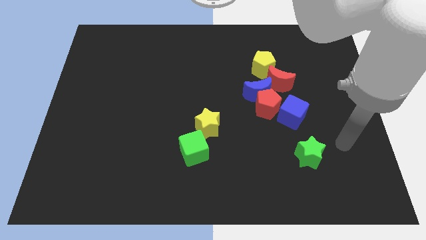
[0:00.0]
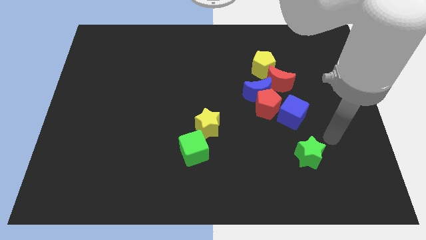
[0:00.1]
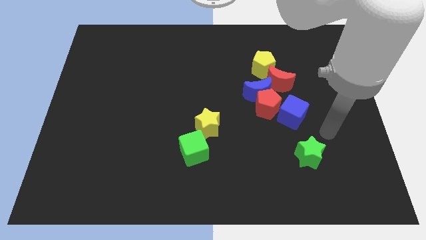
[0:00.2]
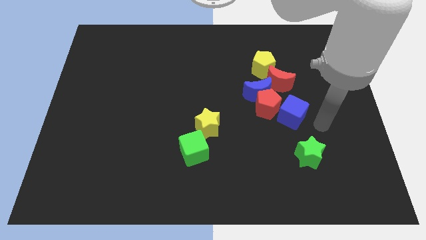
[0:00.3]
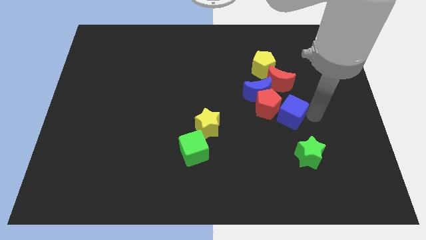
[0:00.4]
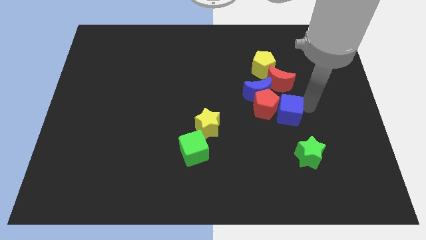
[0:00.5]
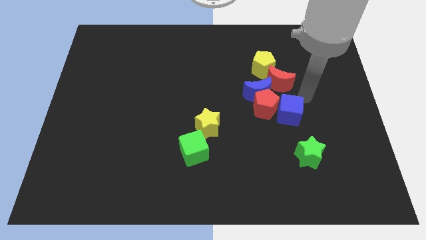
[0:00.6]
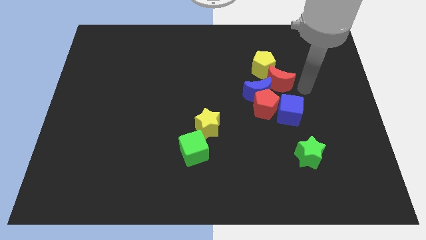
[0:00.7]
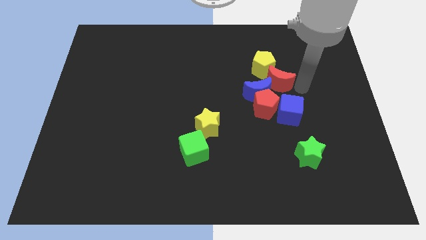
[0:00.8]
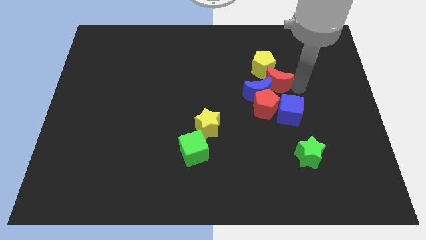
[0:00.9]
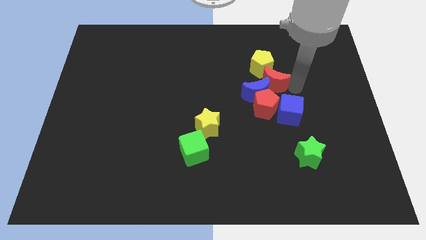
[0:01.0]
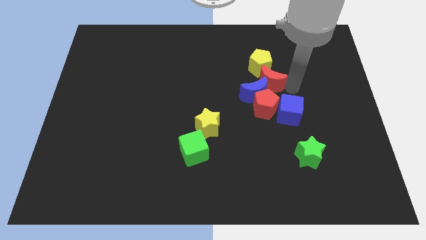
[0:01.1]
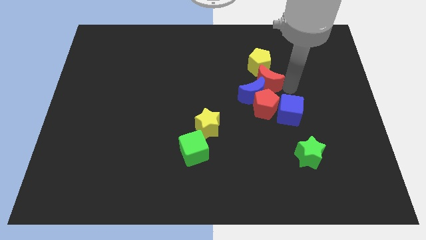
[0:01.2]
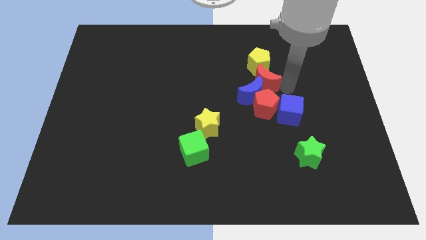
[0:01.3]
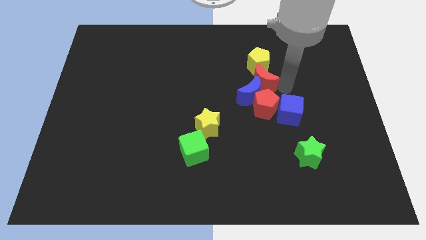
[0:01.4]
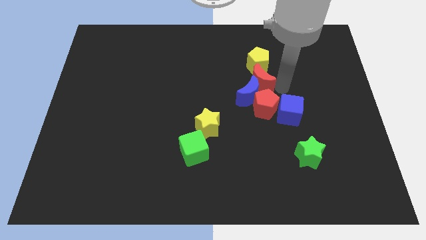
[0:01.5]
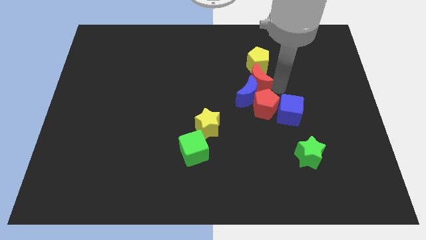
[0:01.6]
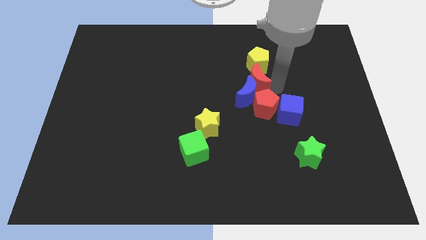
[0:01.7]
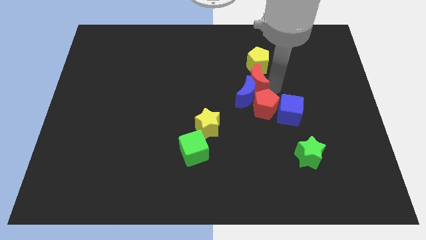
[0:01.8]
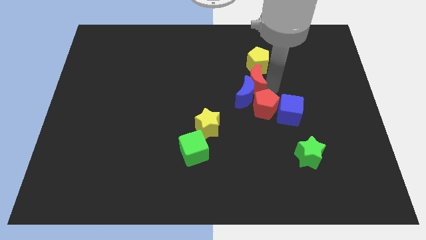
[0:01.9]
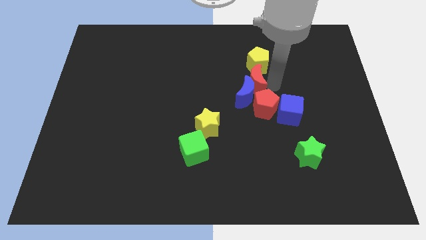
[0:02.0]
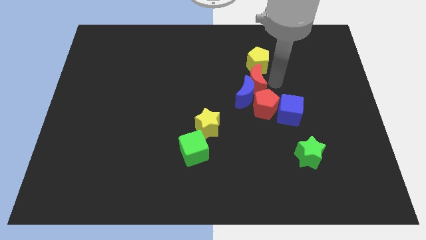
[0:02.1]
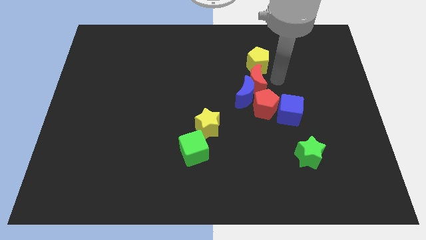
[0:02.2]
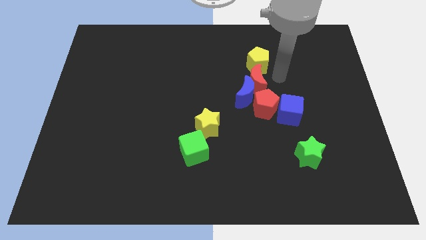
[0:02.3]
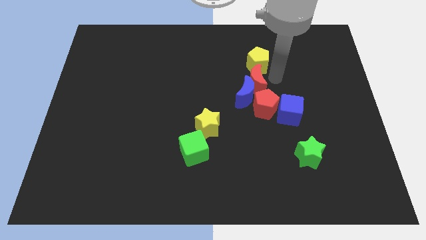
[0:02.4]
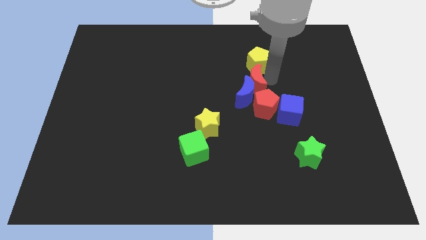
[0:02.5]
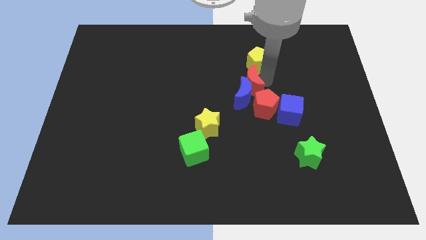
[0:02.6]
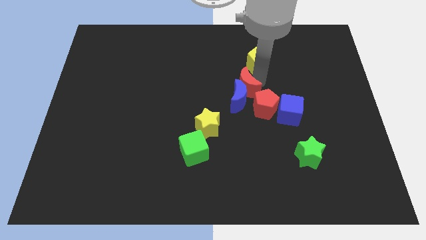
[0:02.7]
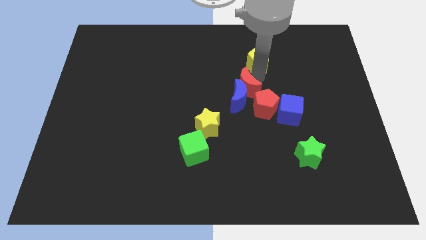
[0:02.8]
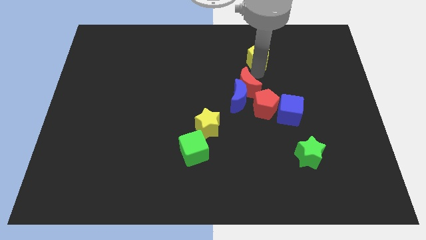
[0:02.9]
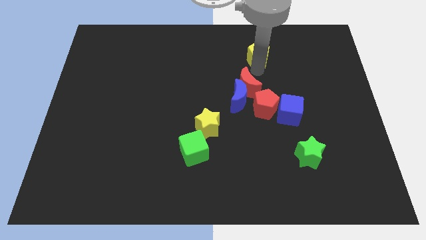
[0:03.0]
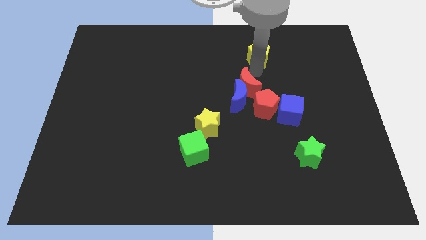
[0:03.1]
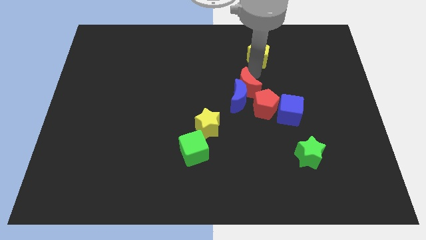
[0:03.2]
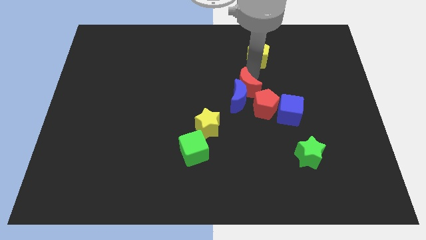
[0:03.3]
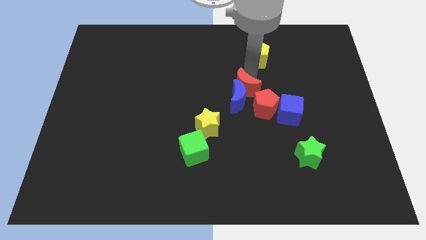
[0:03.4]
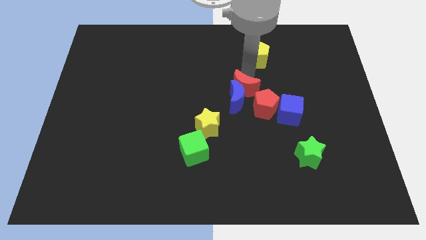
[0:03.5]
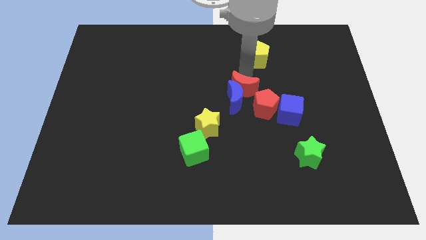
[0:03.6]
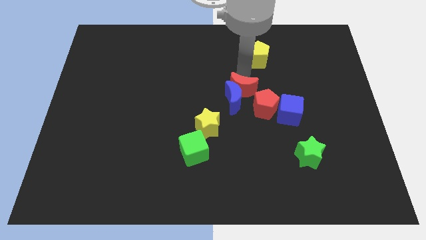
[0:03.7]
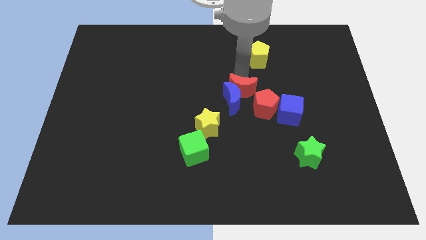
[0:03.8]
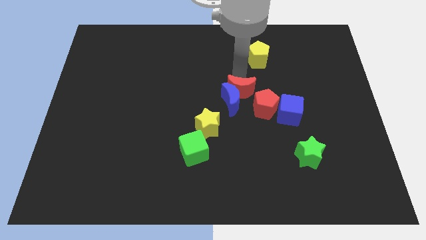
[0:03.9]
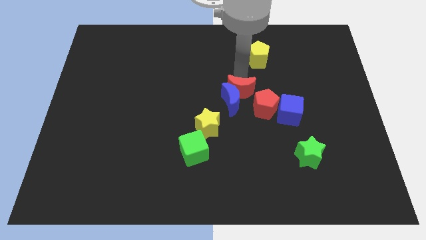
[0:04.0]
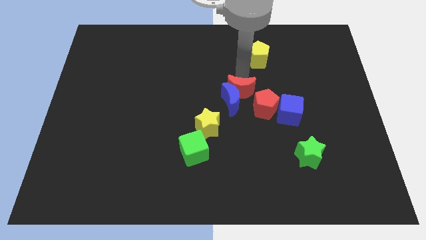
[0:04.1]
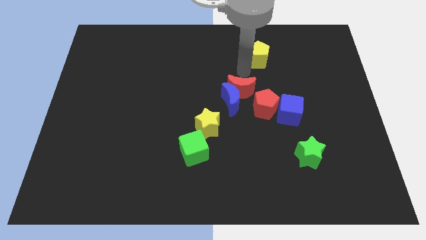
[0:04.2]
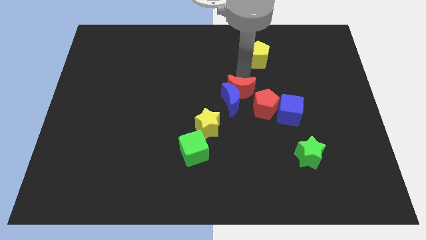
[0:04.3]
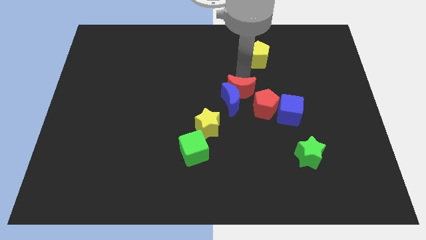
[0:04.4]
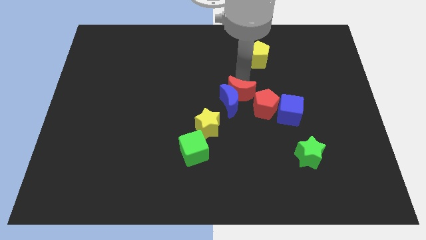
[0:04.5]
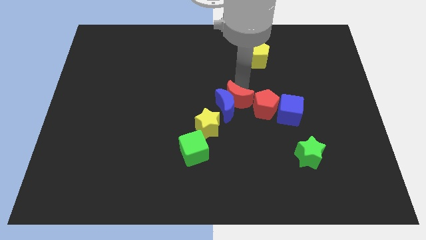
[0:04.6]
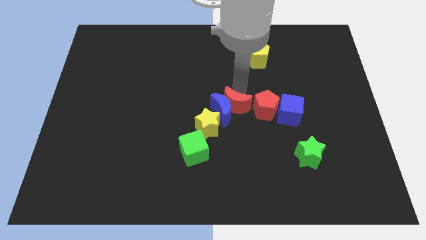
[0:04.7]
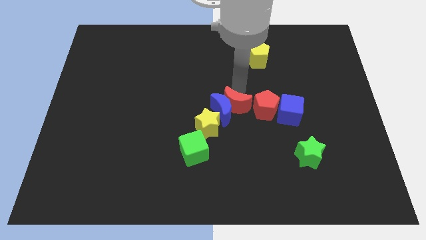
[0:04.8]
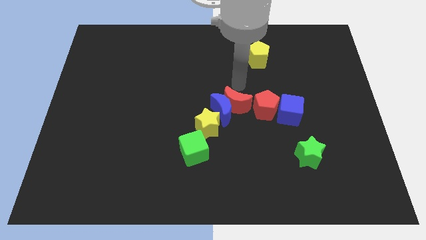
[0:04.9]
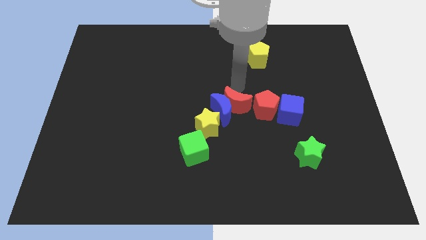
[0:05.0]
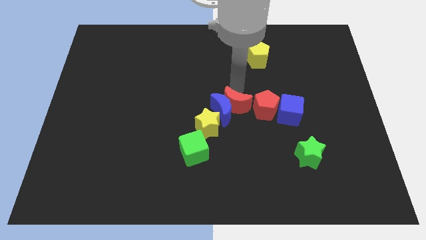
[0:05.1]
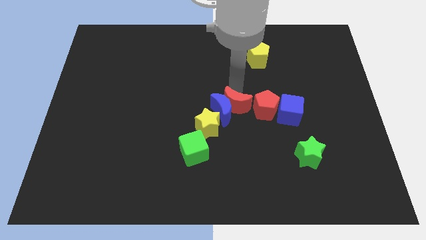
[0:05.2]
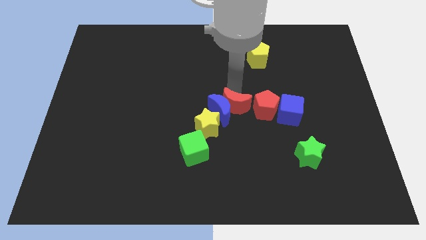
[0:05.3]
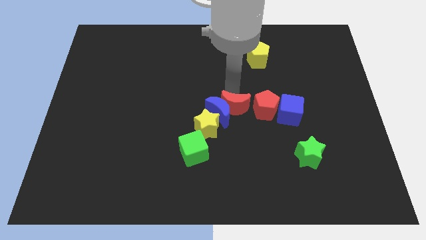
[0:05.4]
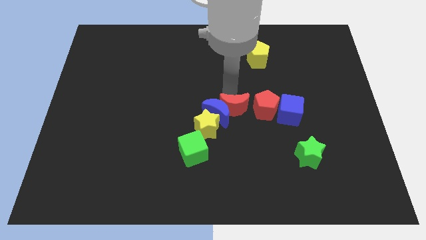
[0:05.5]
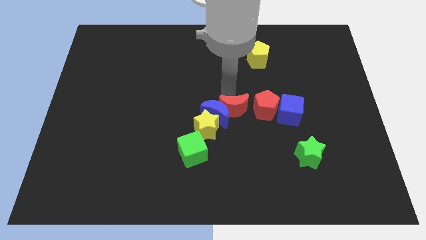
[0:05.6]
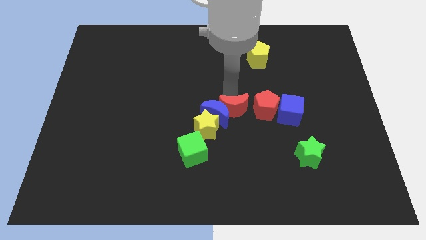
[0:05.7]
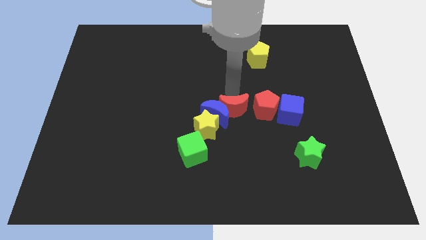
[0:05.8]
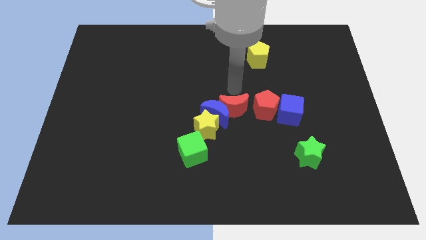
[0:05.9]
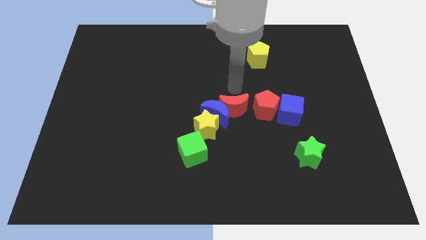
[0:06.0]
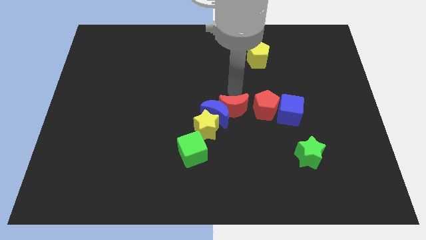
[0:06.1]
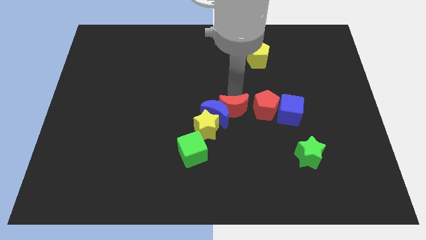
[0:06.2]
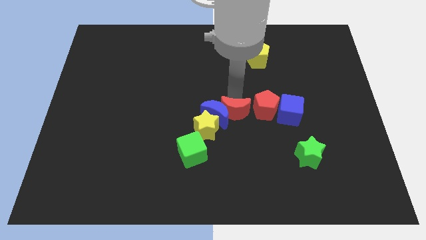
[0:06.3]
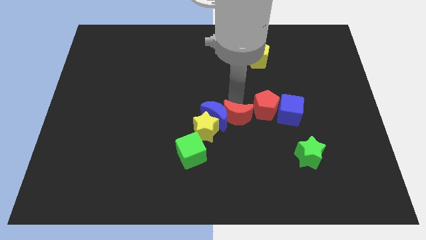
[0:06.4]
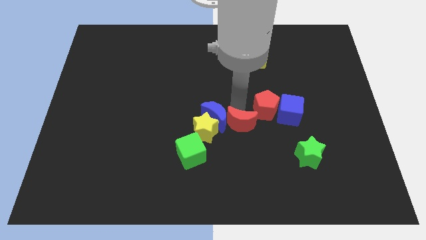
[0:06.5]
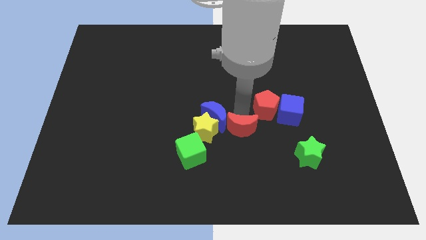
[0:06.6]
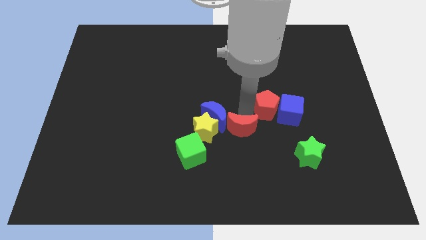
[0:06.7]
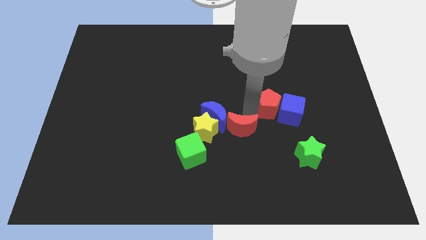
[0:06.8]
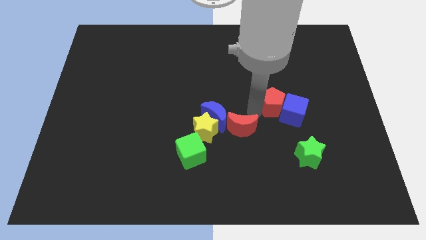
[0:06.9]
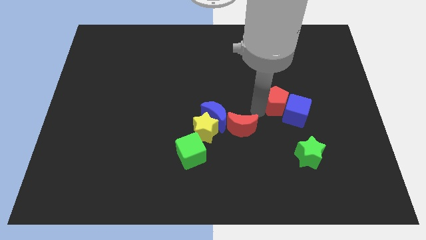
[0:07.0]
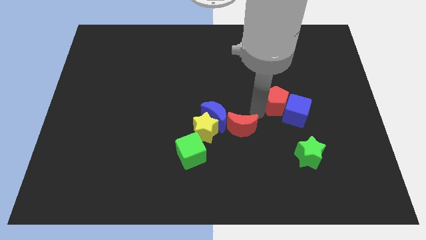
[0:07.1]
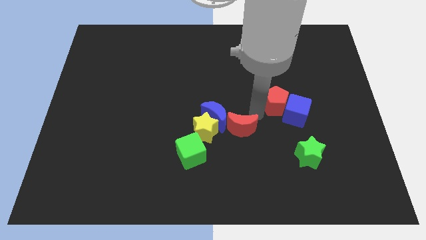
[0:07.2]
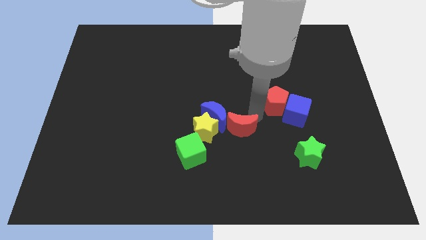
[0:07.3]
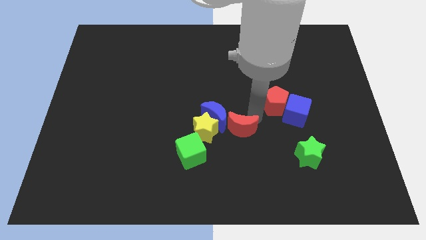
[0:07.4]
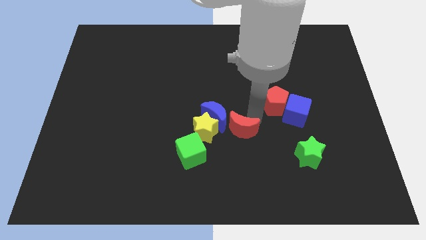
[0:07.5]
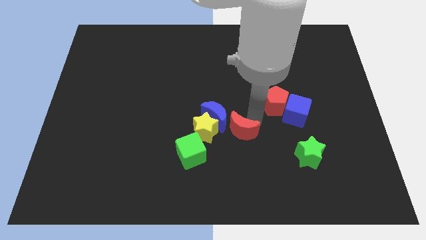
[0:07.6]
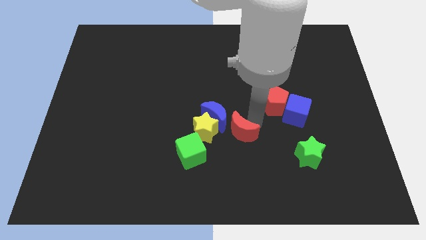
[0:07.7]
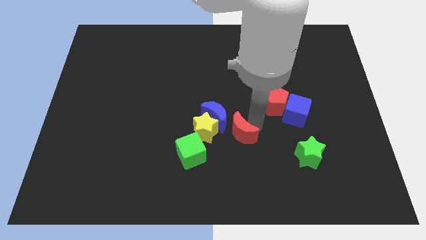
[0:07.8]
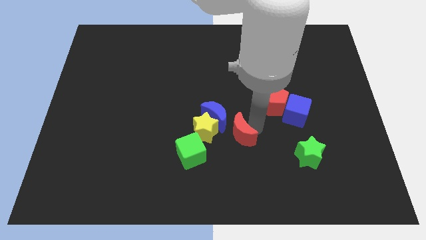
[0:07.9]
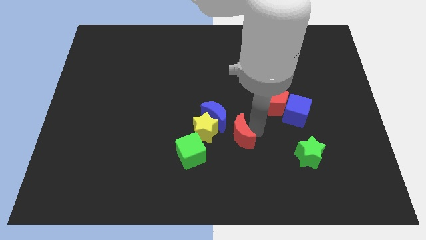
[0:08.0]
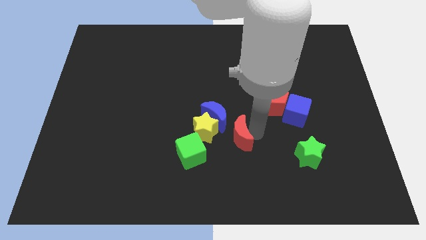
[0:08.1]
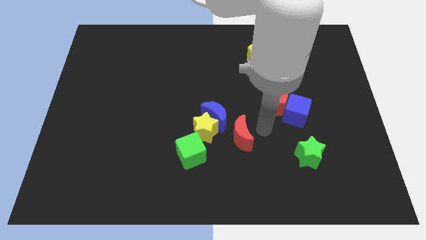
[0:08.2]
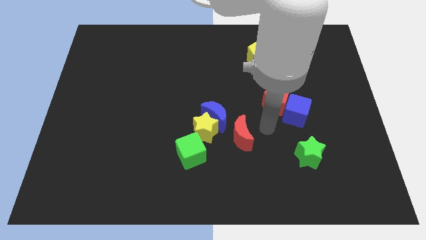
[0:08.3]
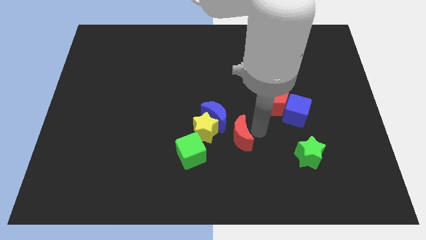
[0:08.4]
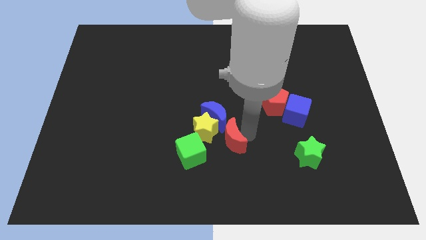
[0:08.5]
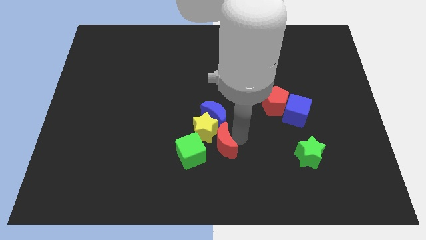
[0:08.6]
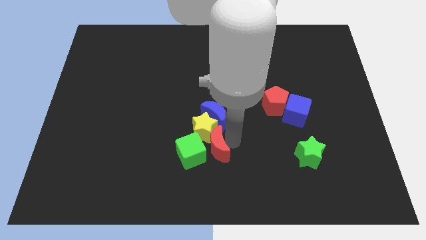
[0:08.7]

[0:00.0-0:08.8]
put the red moon next to the green cube
